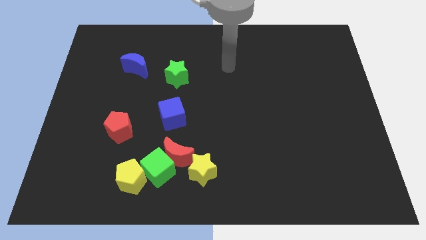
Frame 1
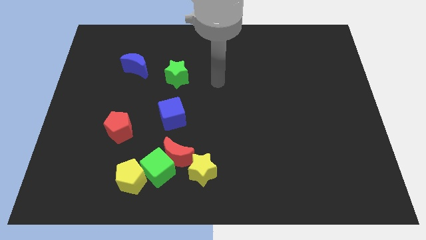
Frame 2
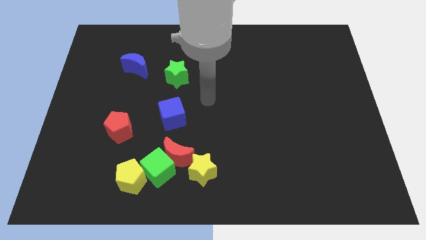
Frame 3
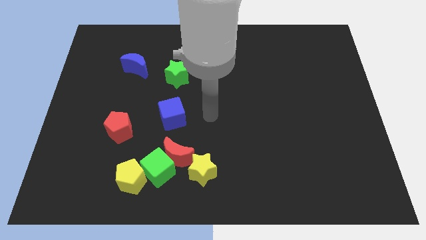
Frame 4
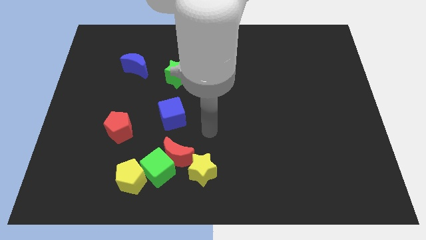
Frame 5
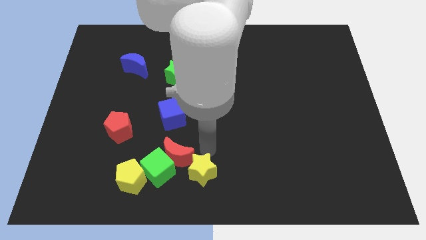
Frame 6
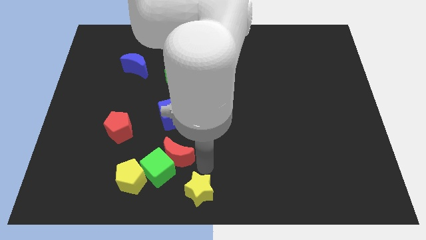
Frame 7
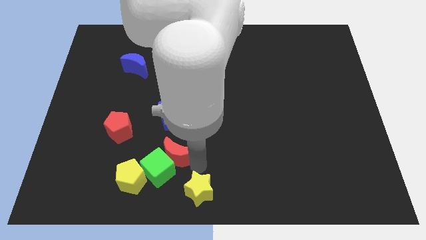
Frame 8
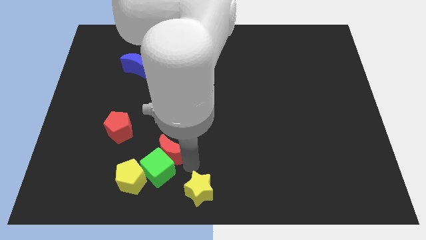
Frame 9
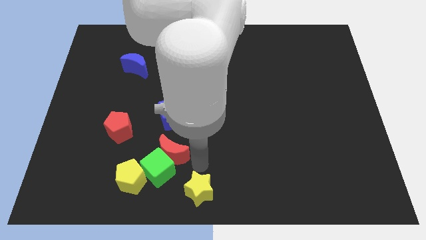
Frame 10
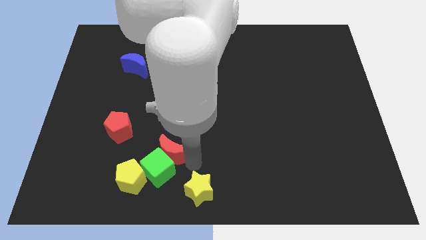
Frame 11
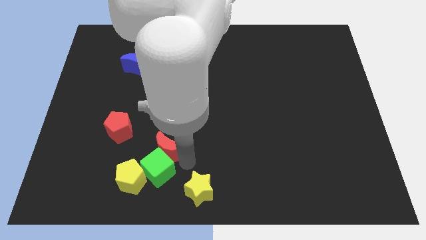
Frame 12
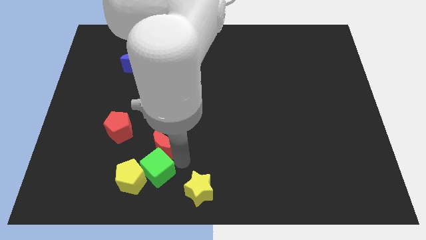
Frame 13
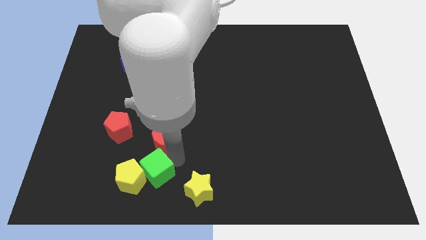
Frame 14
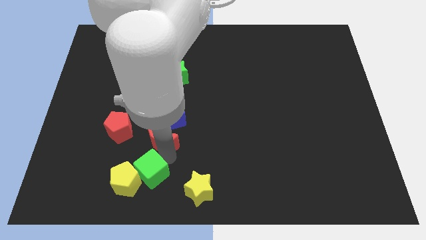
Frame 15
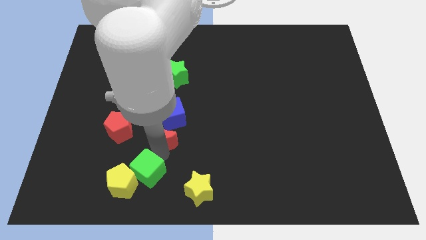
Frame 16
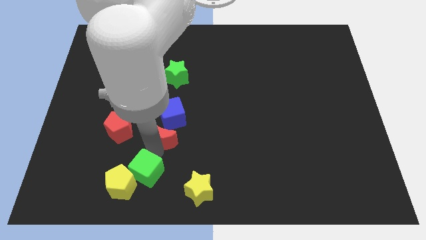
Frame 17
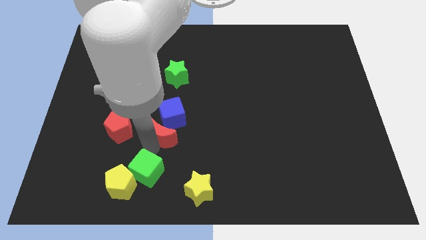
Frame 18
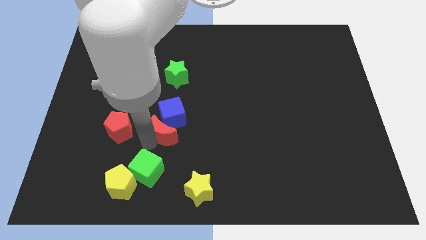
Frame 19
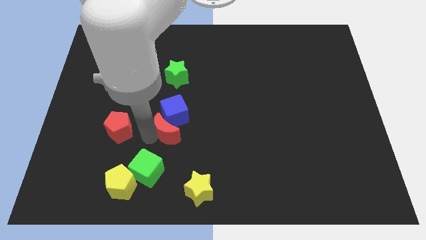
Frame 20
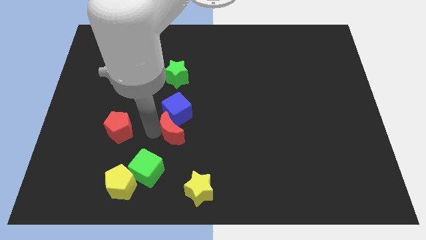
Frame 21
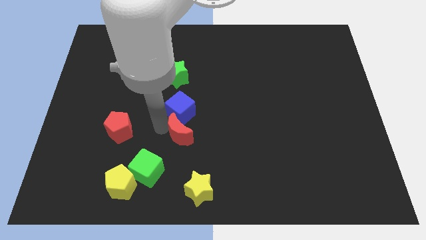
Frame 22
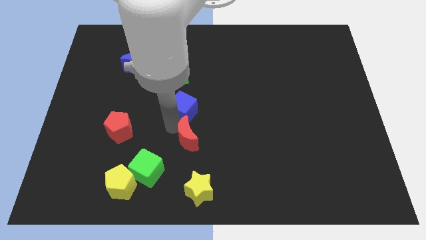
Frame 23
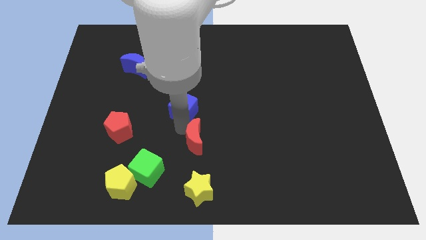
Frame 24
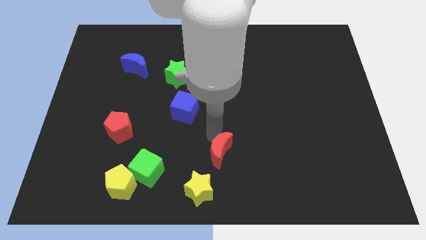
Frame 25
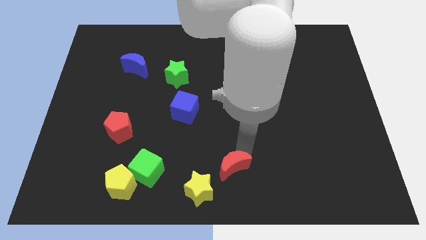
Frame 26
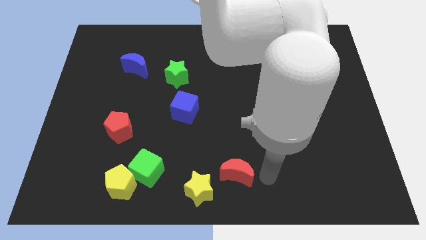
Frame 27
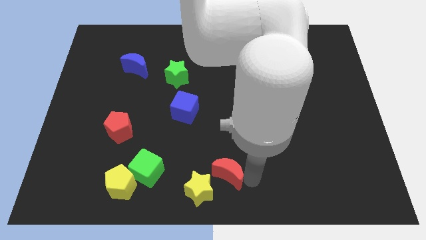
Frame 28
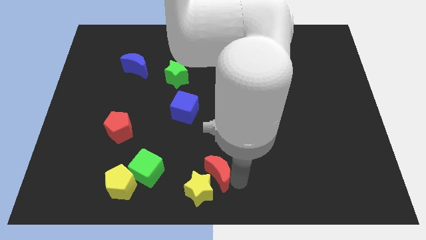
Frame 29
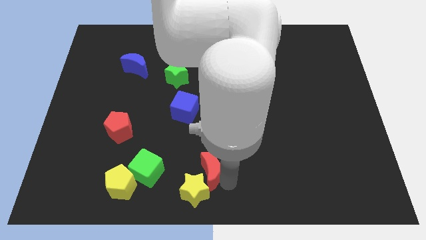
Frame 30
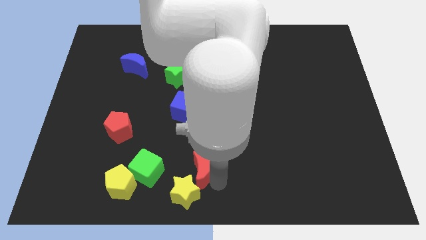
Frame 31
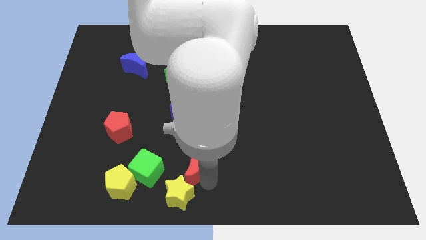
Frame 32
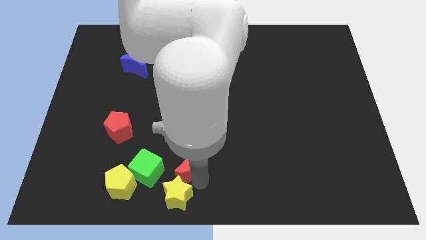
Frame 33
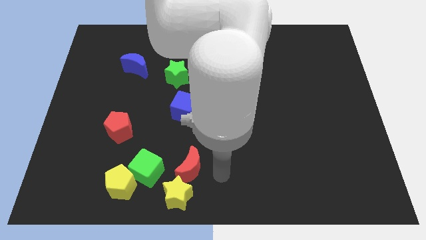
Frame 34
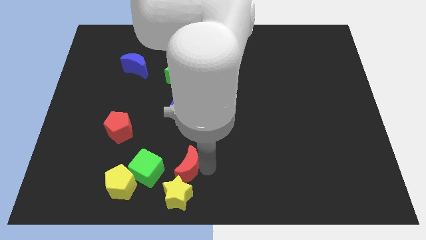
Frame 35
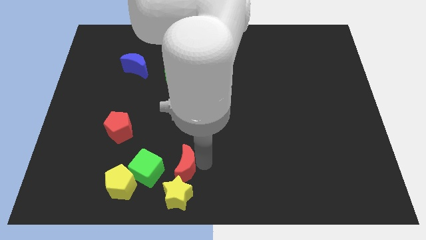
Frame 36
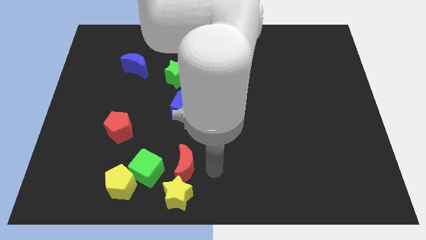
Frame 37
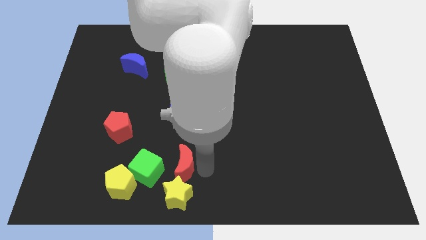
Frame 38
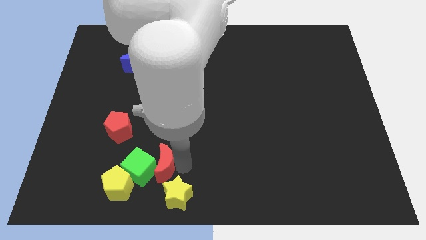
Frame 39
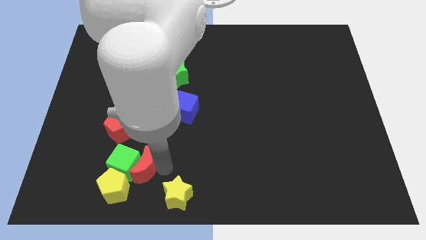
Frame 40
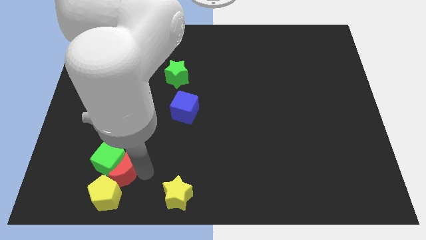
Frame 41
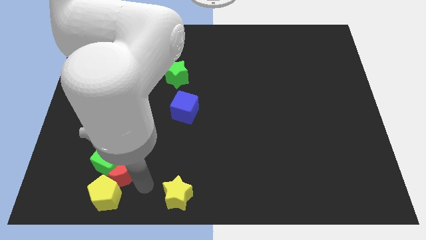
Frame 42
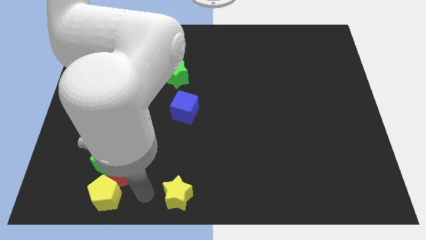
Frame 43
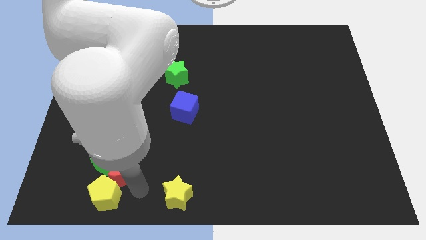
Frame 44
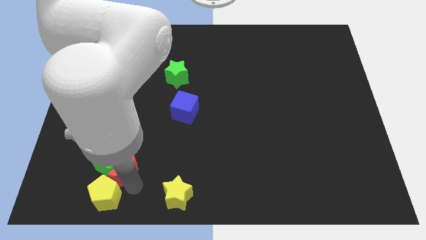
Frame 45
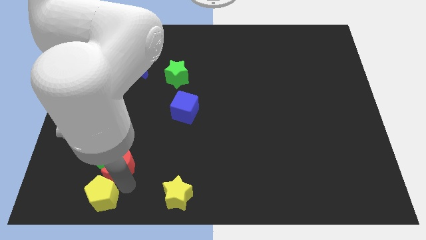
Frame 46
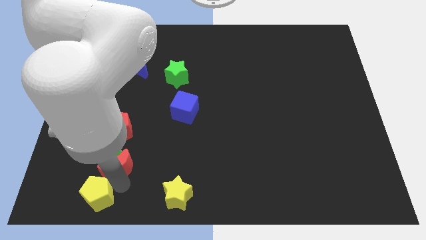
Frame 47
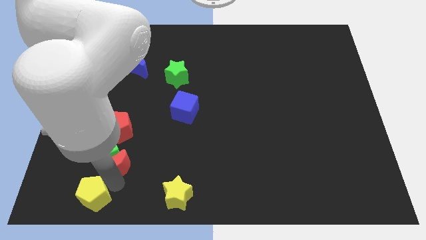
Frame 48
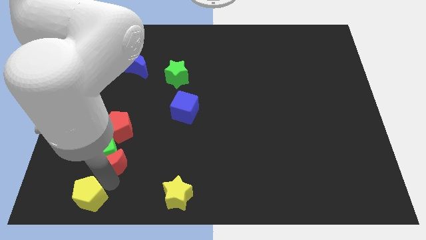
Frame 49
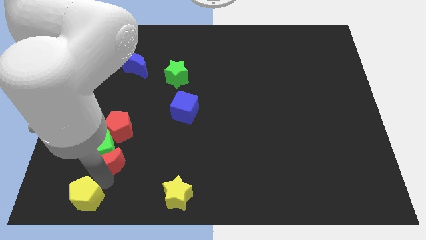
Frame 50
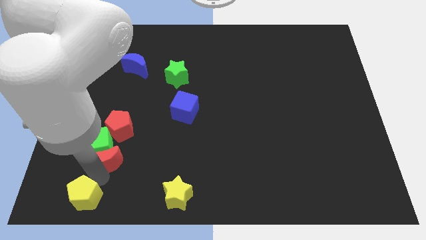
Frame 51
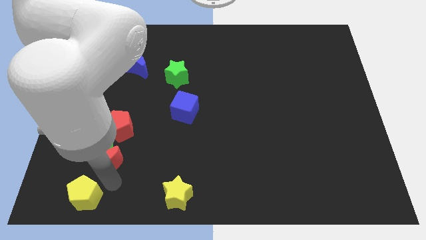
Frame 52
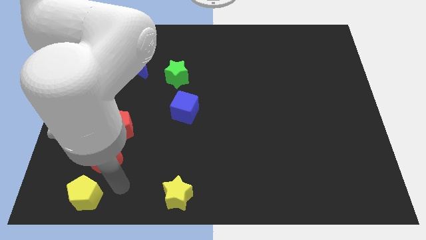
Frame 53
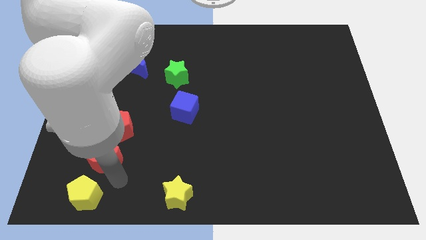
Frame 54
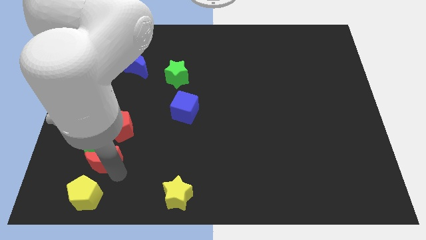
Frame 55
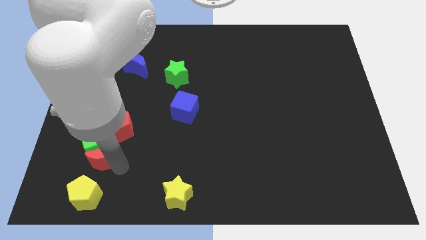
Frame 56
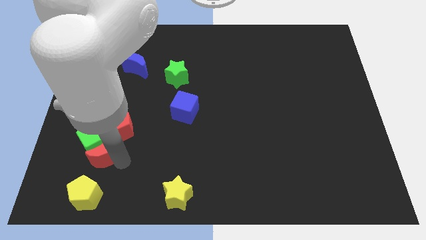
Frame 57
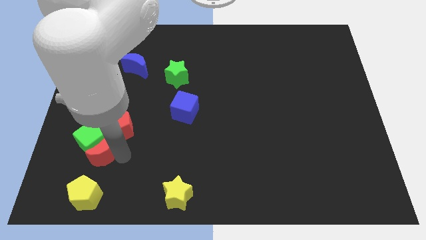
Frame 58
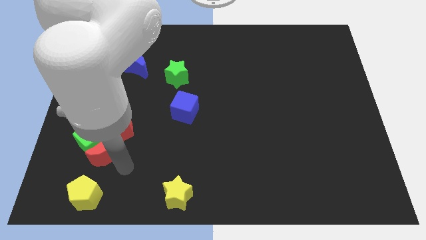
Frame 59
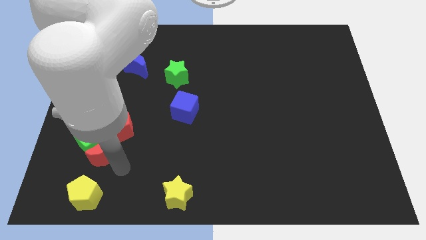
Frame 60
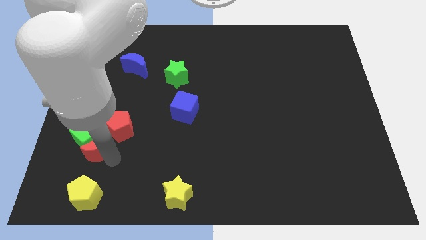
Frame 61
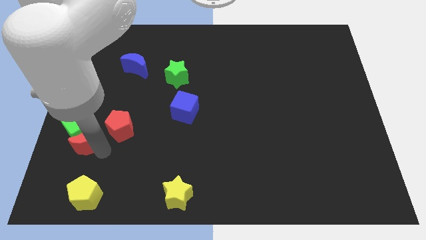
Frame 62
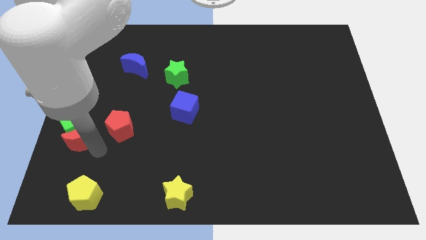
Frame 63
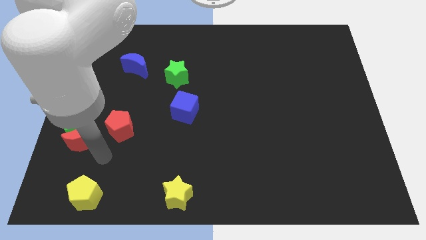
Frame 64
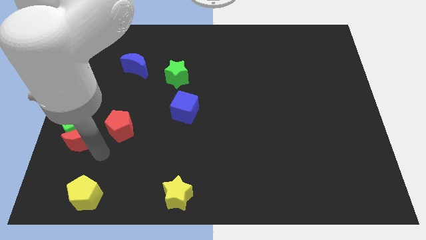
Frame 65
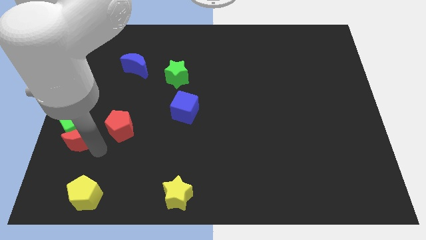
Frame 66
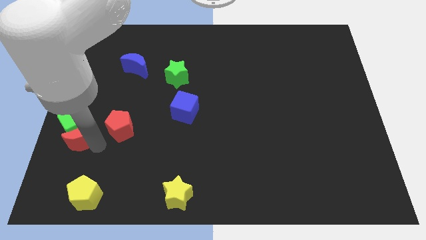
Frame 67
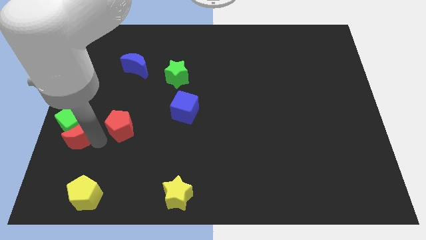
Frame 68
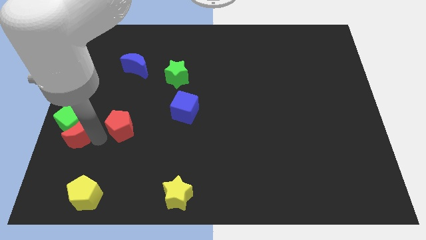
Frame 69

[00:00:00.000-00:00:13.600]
push the red moon to the left side
